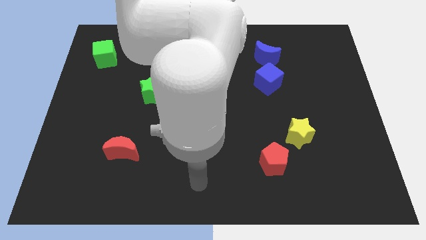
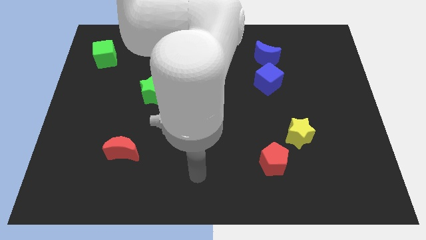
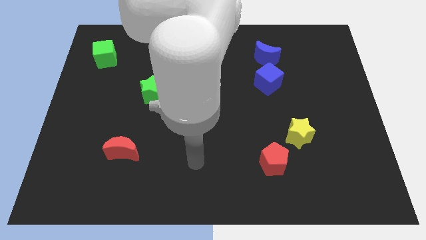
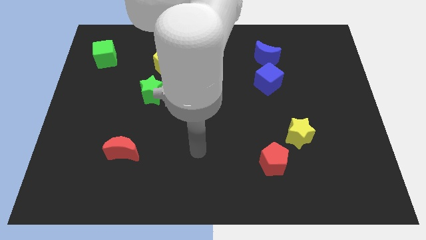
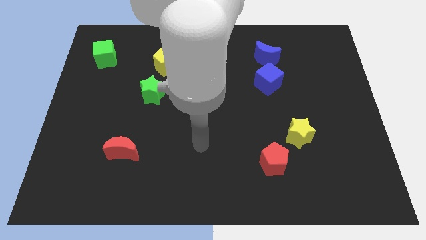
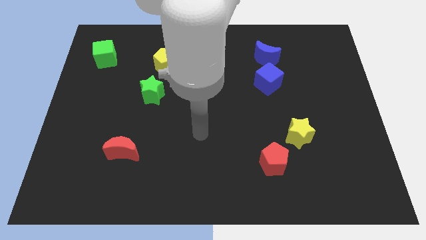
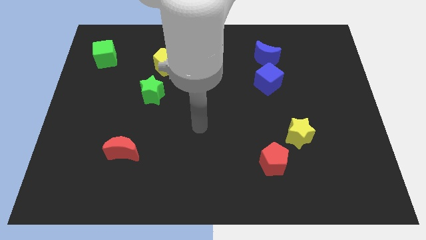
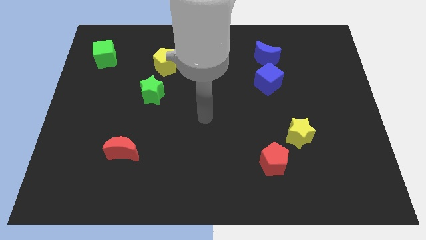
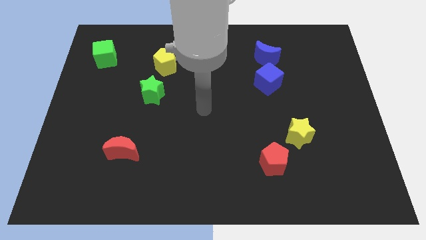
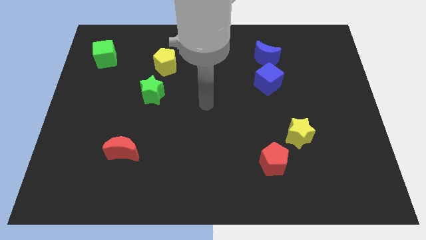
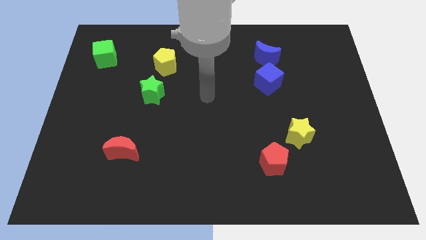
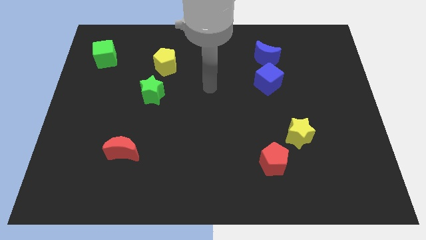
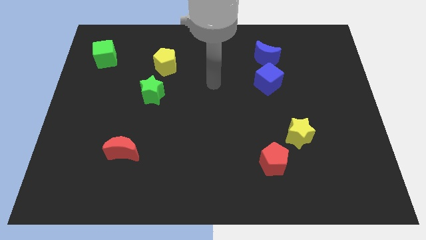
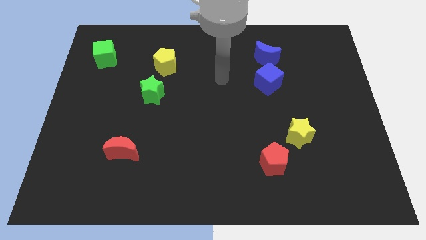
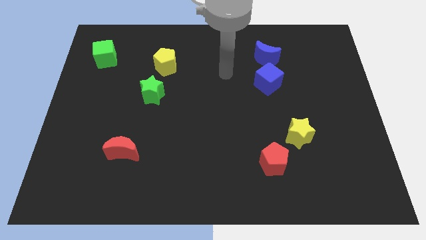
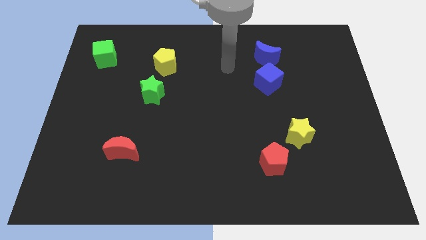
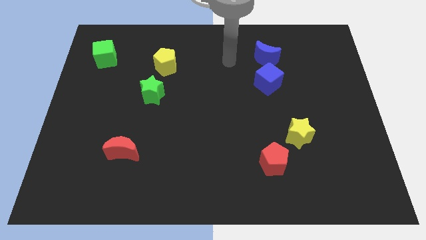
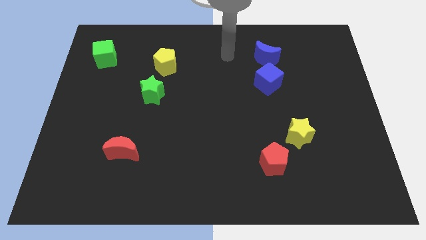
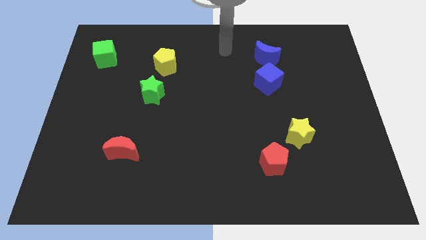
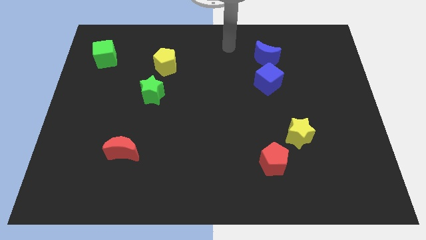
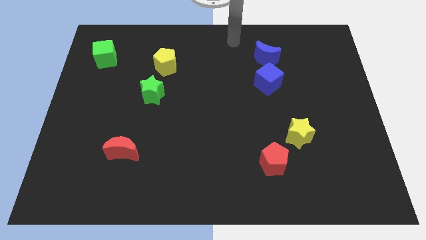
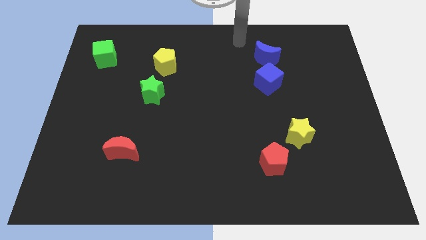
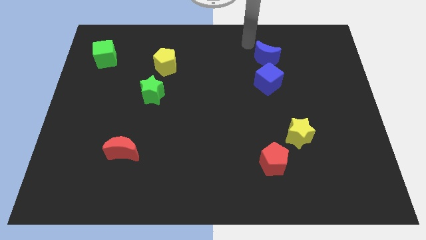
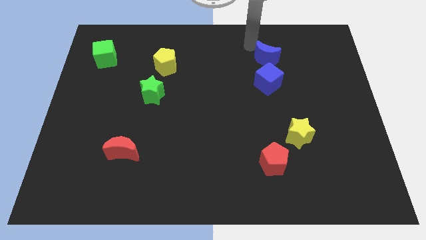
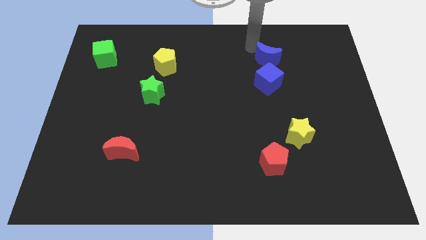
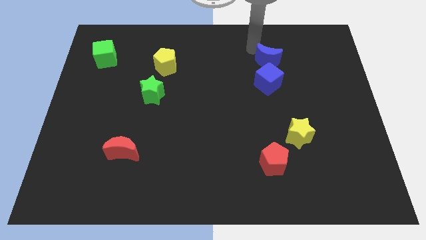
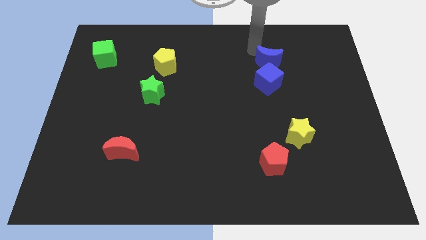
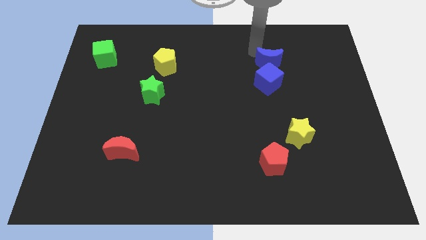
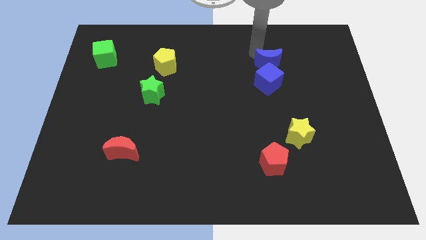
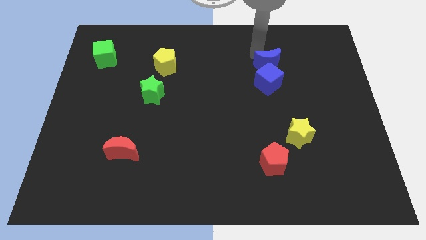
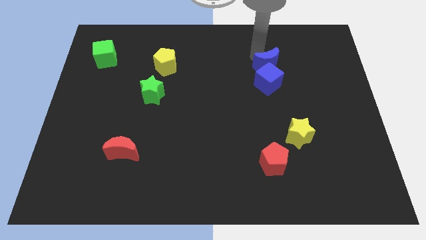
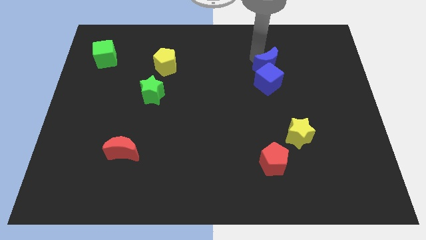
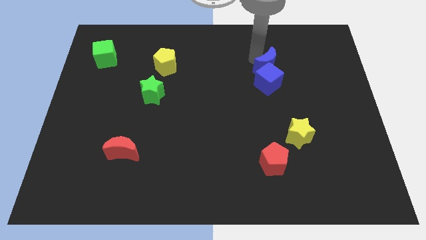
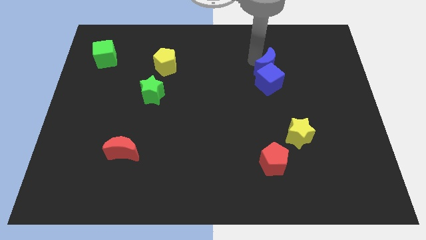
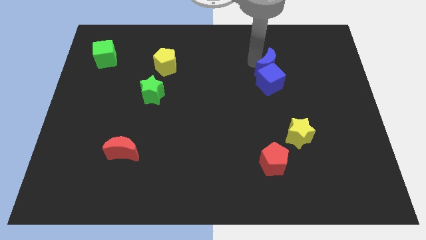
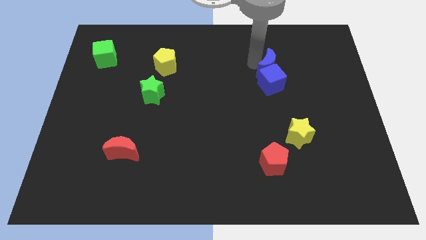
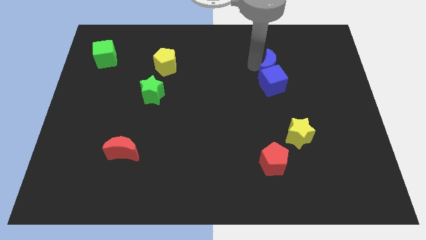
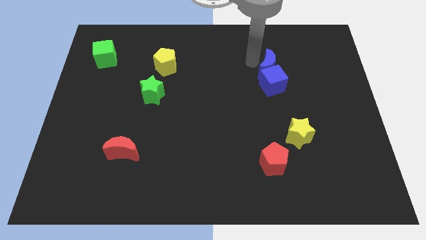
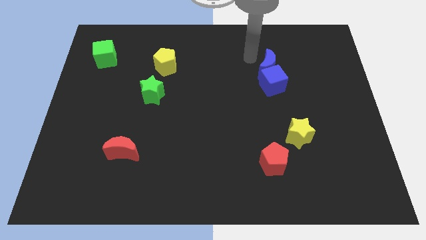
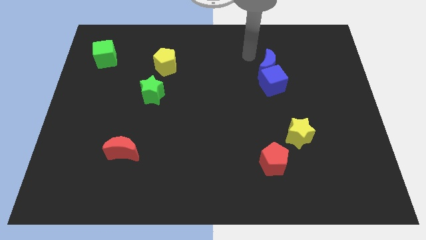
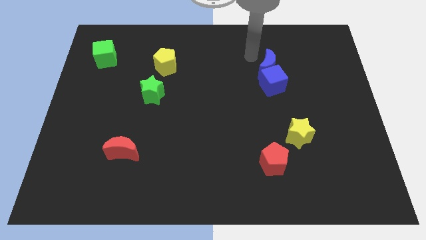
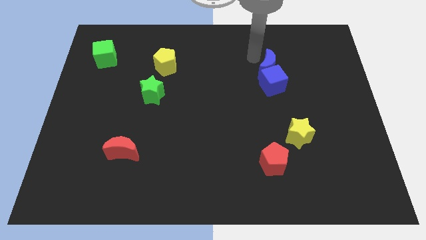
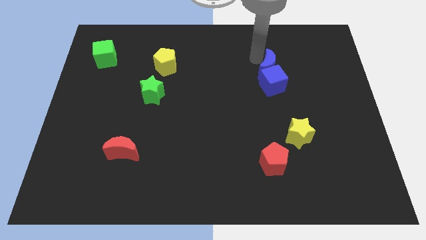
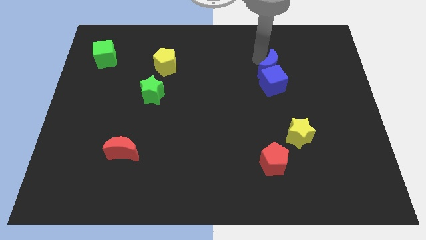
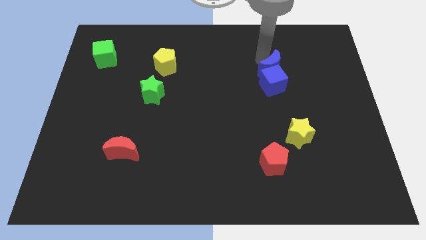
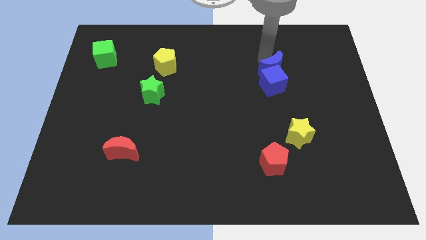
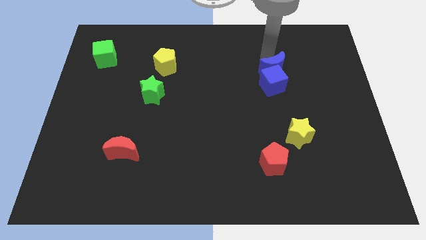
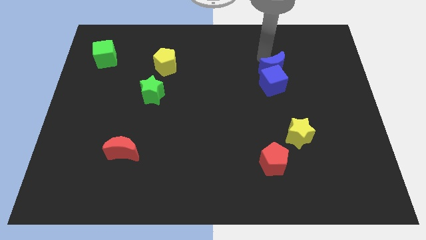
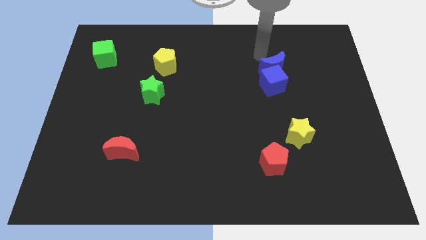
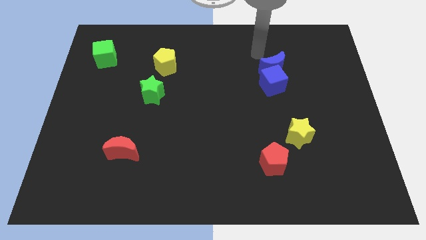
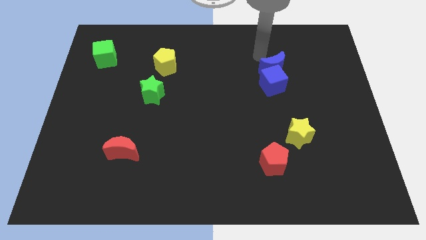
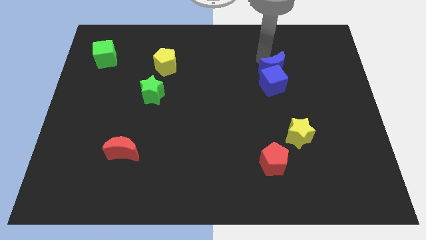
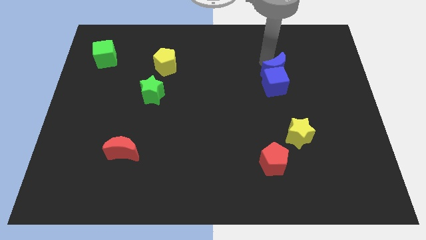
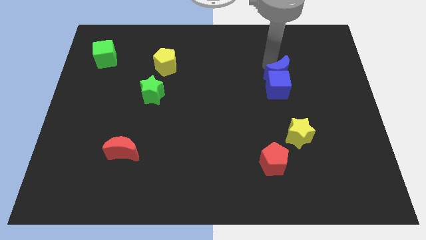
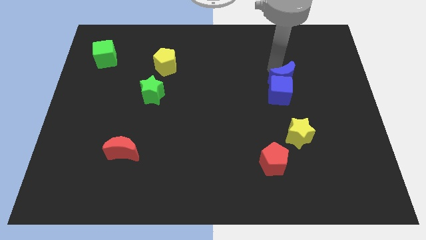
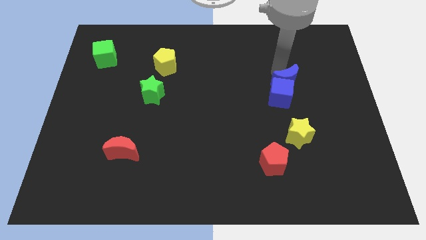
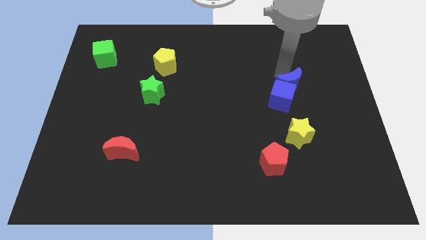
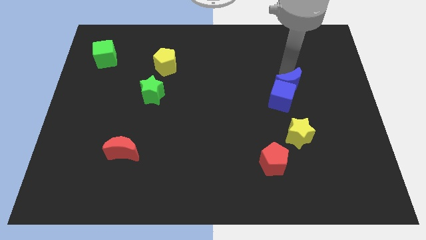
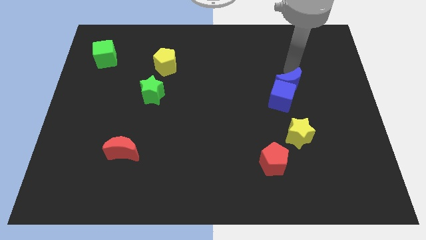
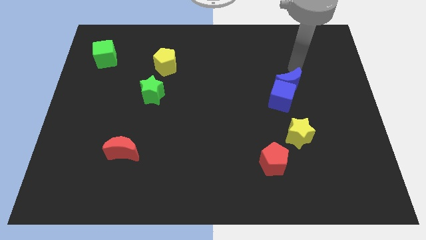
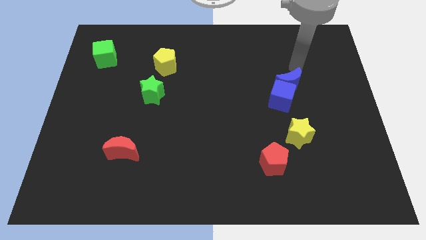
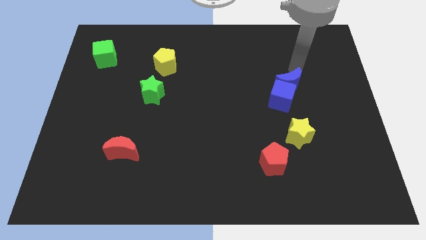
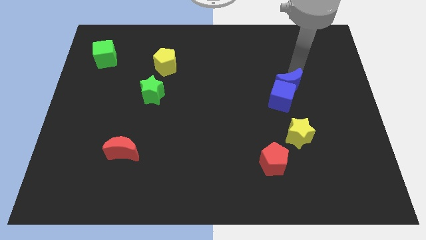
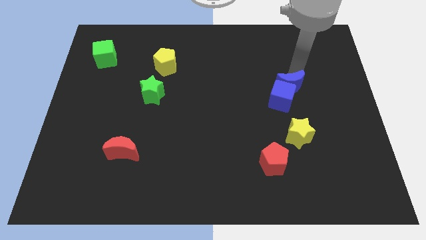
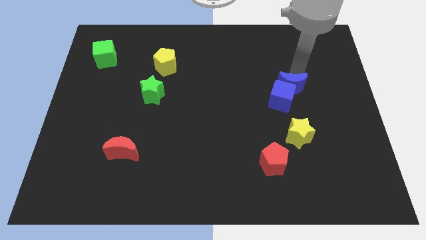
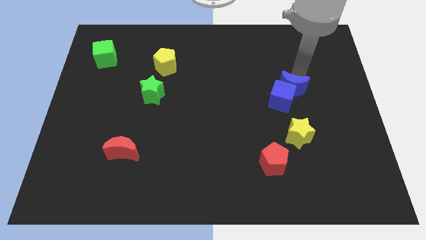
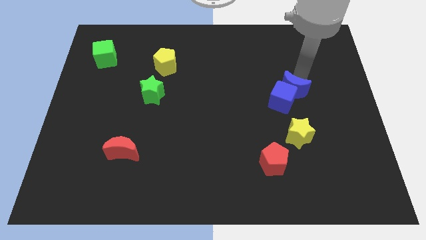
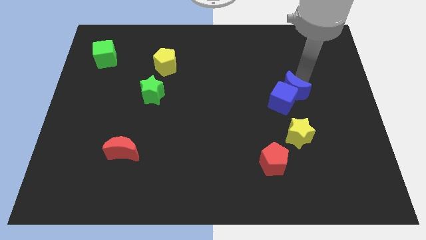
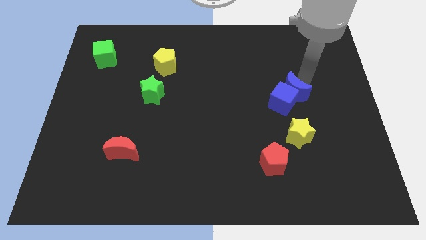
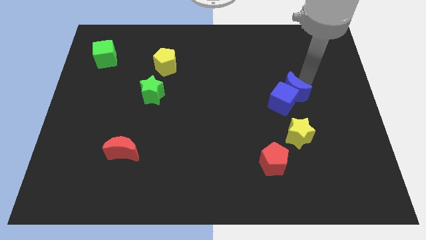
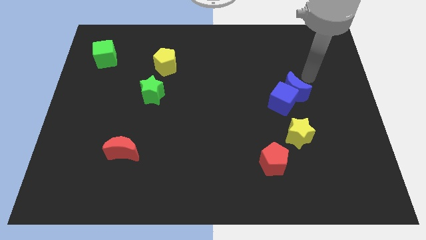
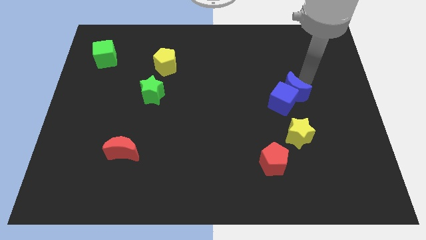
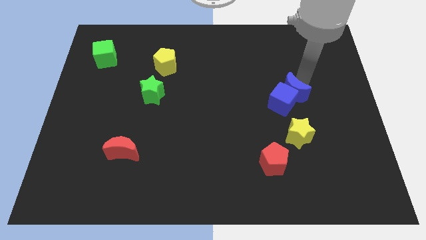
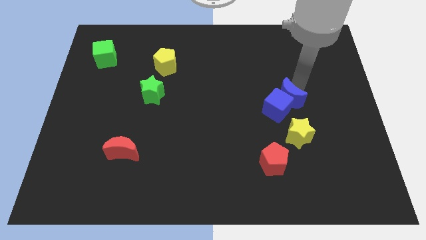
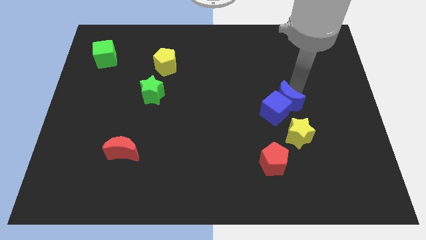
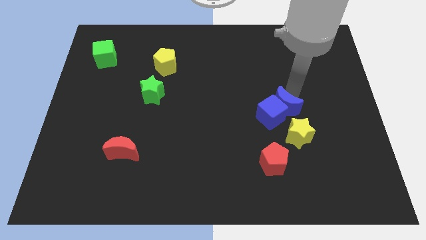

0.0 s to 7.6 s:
slide the blue moon to the top left of the yellow star
